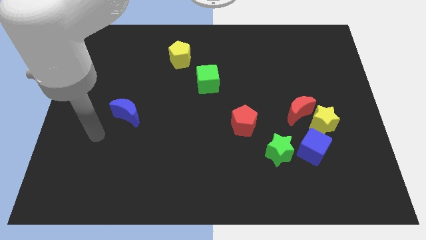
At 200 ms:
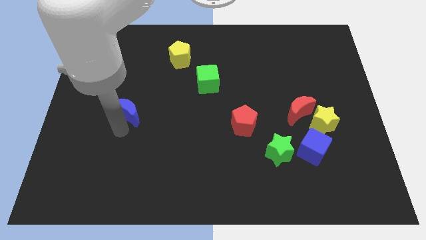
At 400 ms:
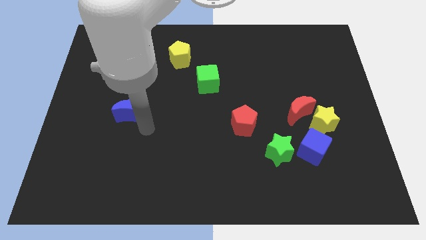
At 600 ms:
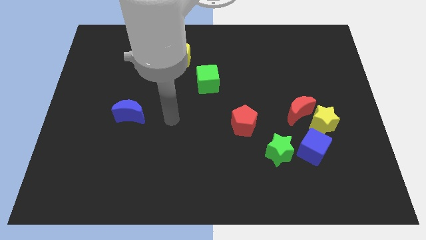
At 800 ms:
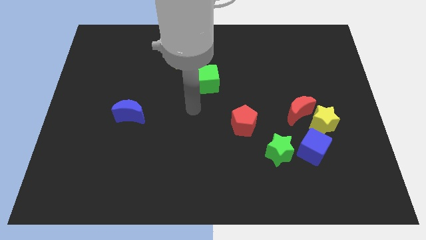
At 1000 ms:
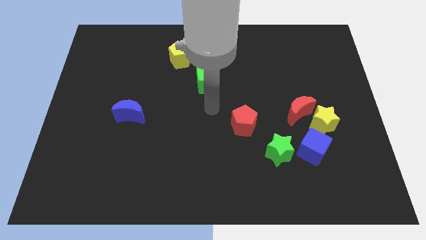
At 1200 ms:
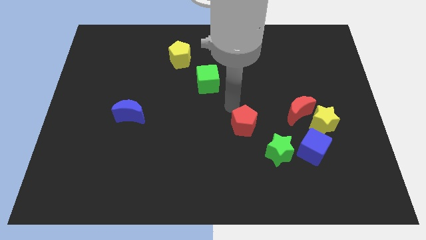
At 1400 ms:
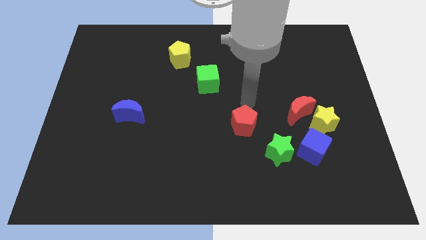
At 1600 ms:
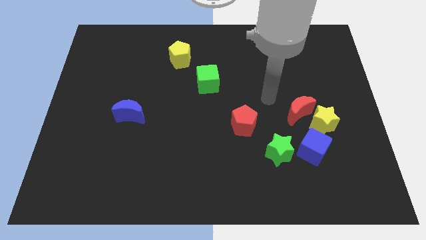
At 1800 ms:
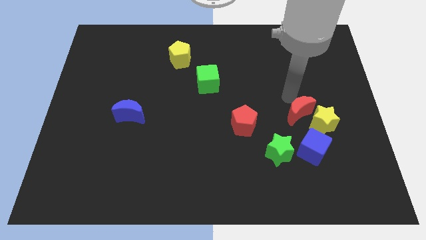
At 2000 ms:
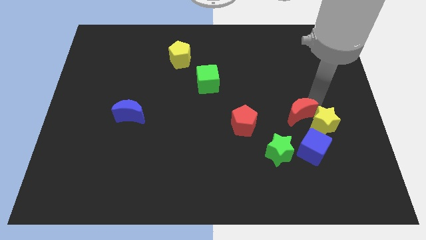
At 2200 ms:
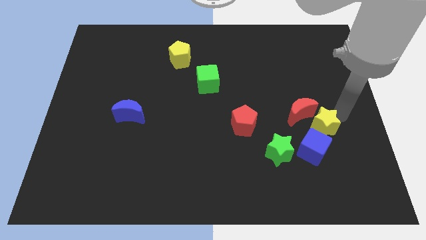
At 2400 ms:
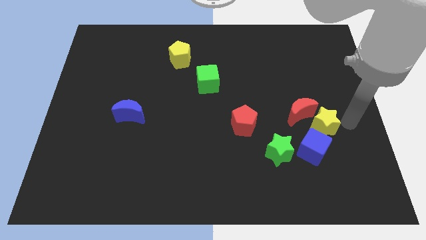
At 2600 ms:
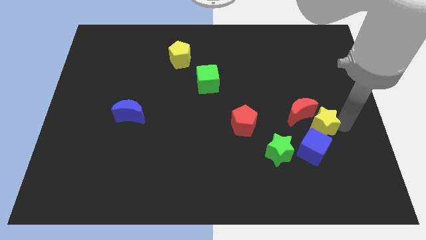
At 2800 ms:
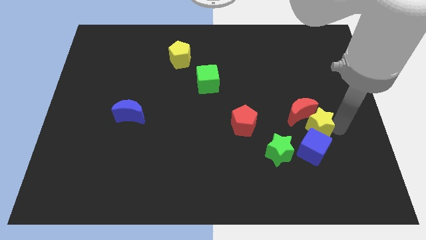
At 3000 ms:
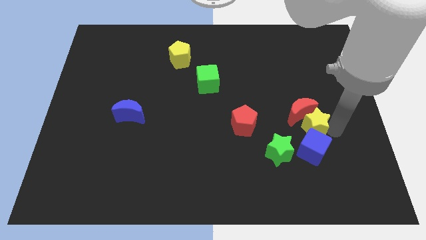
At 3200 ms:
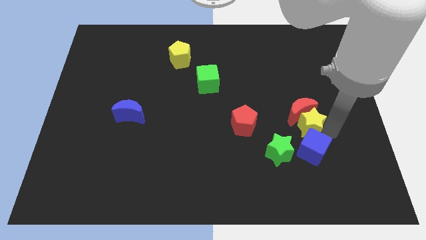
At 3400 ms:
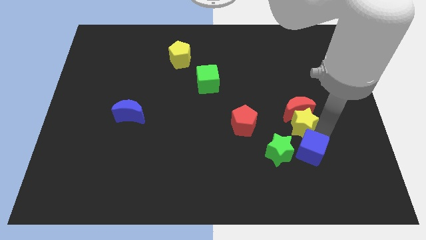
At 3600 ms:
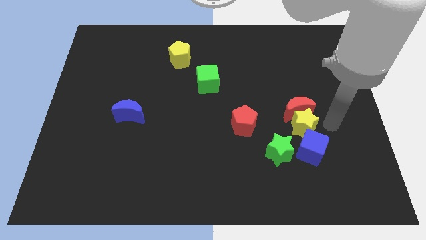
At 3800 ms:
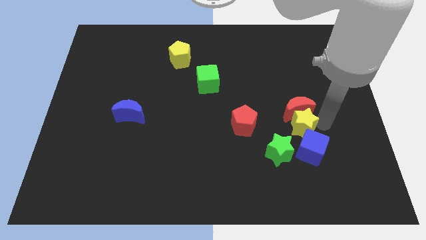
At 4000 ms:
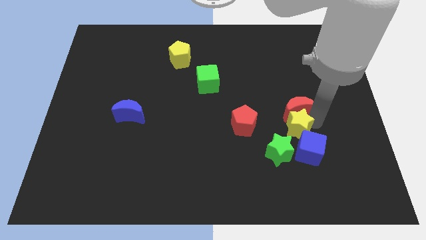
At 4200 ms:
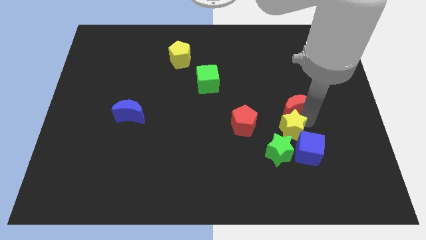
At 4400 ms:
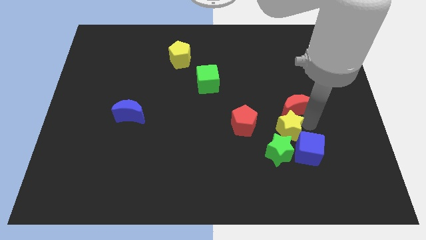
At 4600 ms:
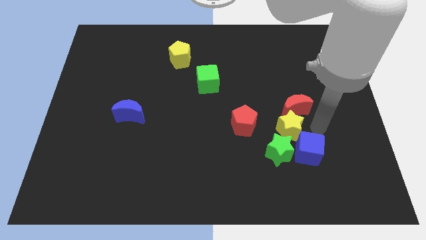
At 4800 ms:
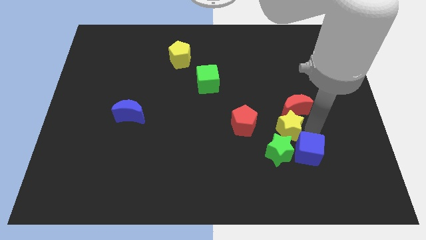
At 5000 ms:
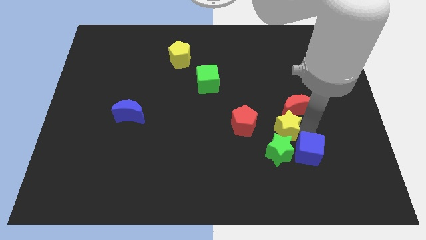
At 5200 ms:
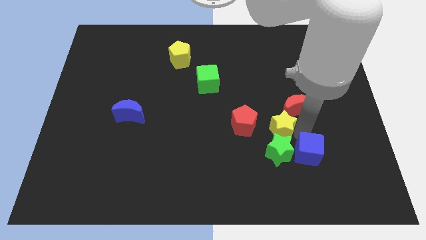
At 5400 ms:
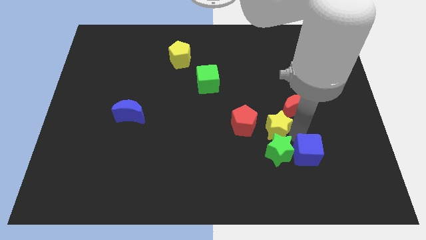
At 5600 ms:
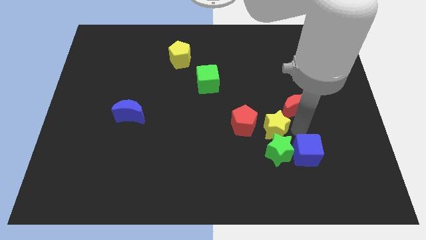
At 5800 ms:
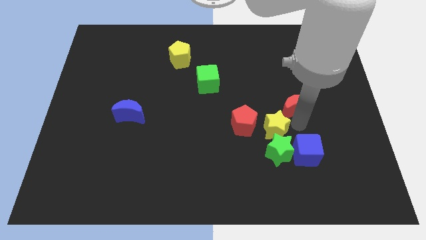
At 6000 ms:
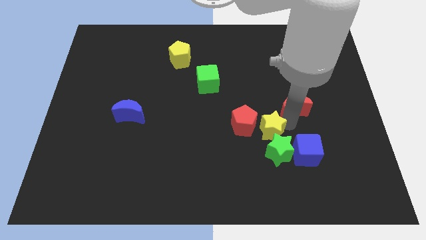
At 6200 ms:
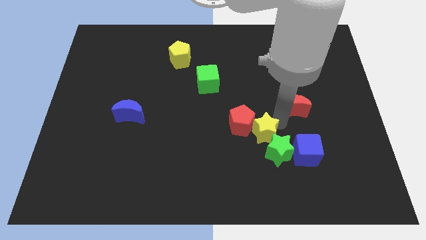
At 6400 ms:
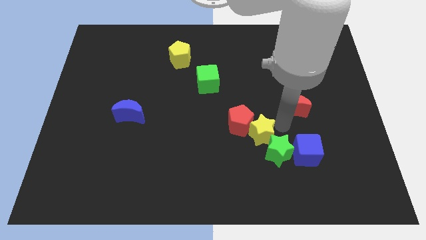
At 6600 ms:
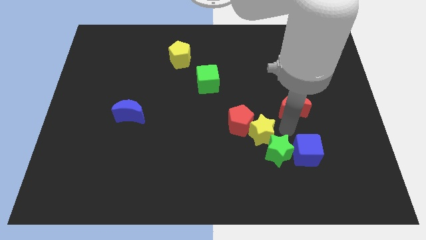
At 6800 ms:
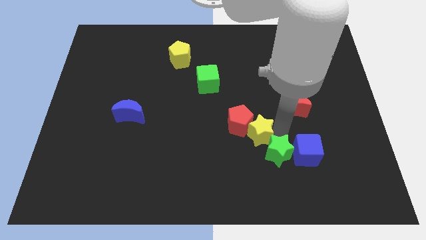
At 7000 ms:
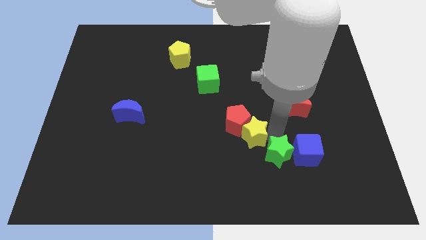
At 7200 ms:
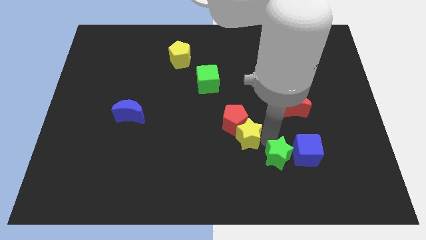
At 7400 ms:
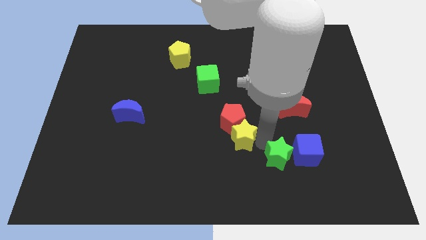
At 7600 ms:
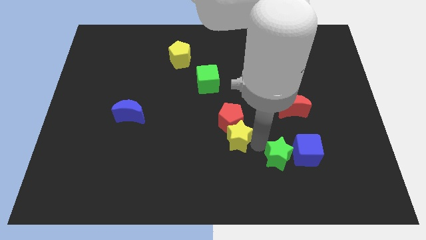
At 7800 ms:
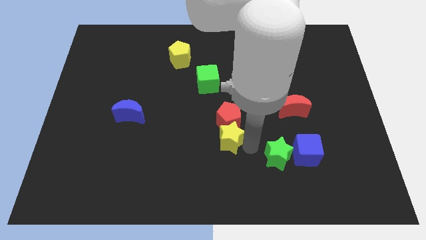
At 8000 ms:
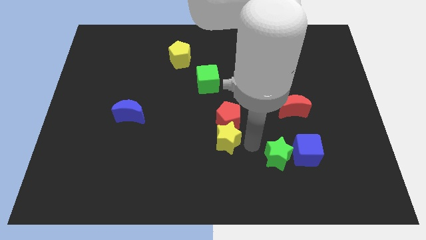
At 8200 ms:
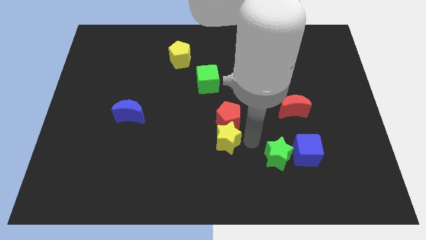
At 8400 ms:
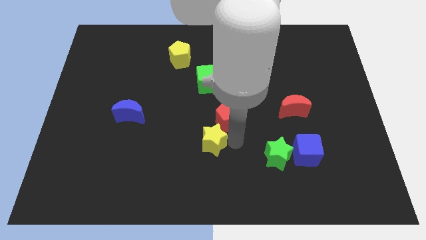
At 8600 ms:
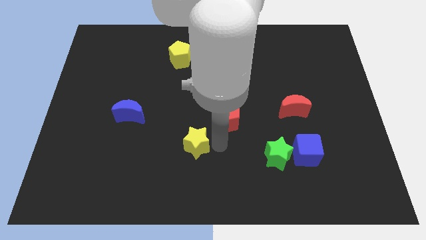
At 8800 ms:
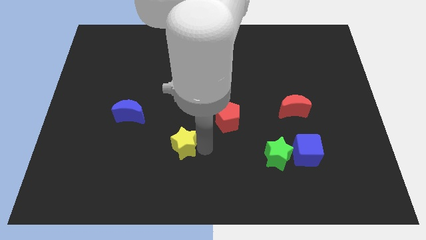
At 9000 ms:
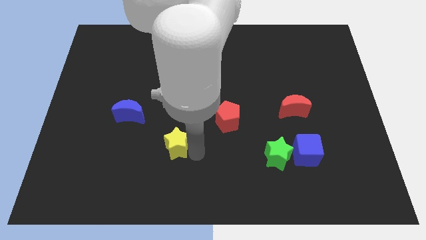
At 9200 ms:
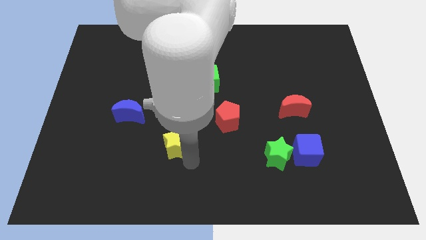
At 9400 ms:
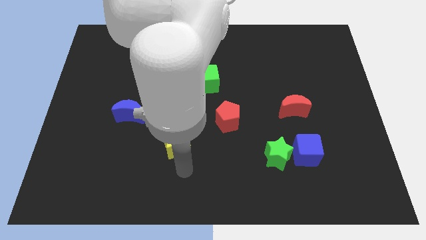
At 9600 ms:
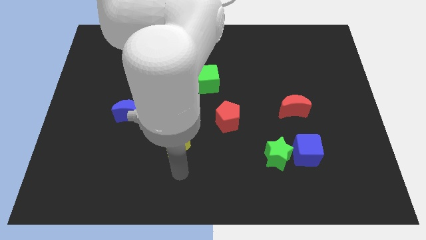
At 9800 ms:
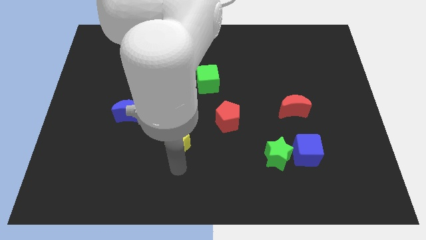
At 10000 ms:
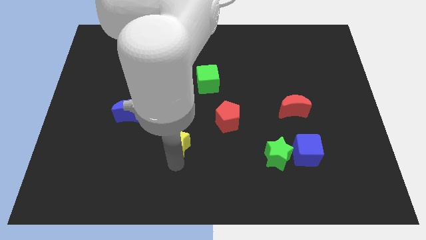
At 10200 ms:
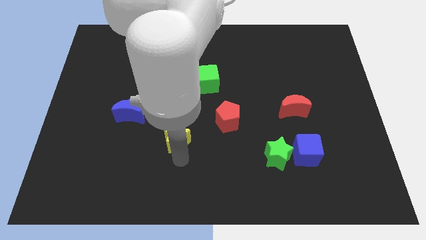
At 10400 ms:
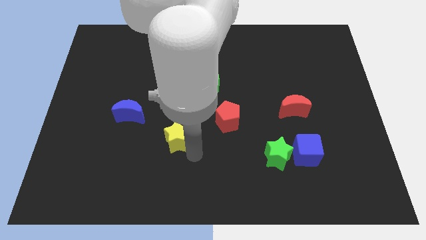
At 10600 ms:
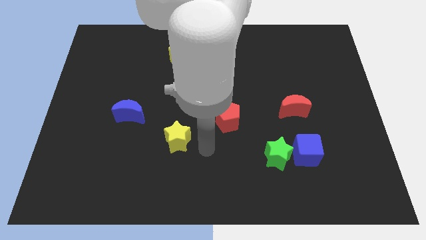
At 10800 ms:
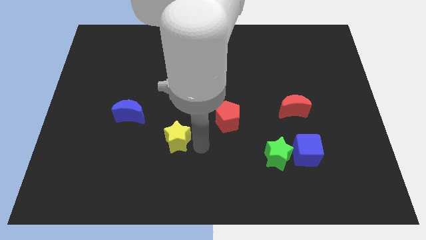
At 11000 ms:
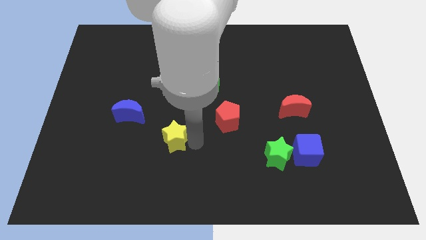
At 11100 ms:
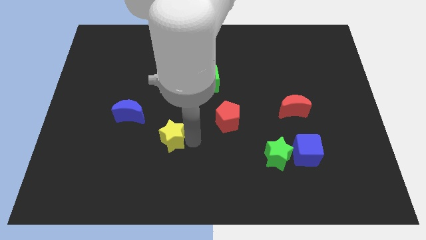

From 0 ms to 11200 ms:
put the yellow star to the bottom right of the blue moon

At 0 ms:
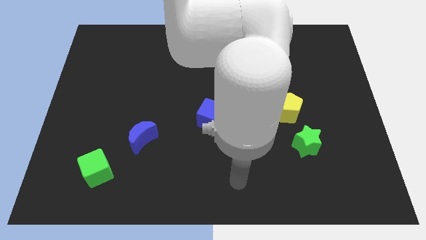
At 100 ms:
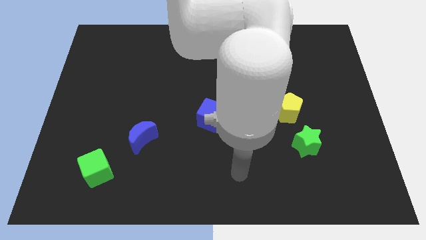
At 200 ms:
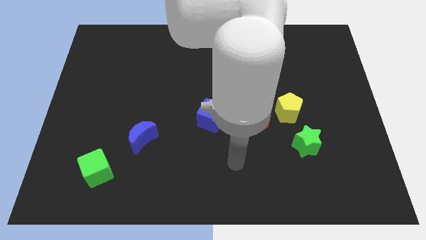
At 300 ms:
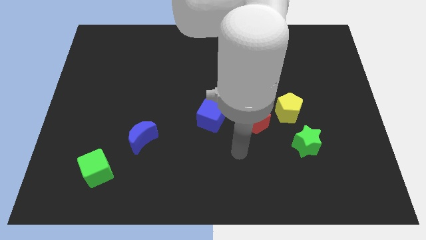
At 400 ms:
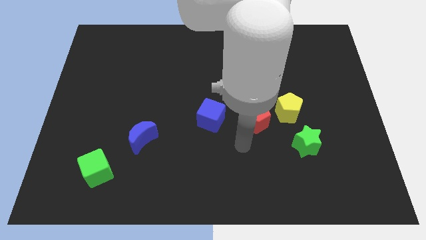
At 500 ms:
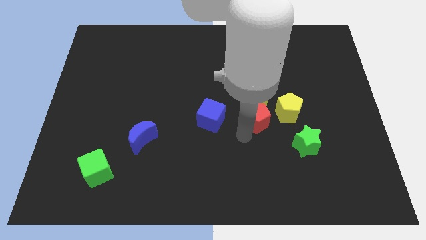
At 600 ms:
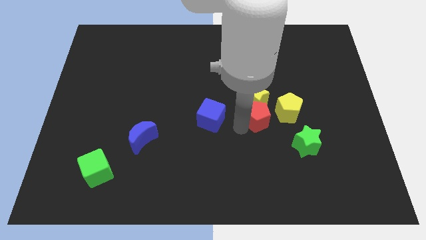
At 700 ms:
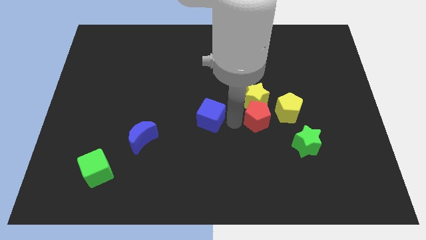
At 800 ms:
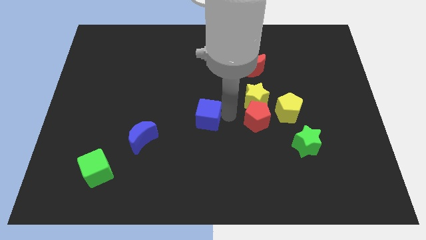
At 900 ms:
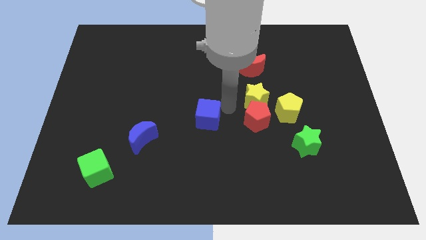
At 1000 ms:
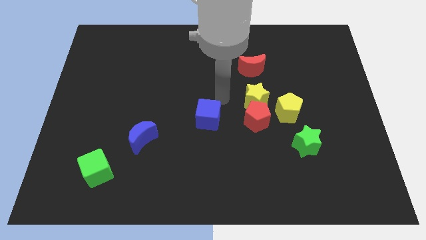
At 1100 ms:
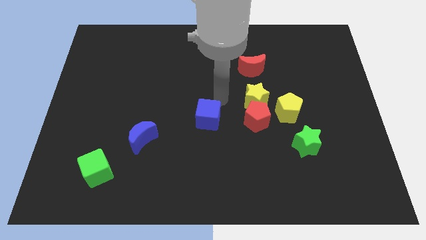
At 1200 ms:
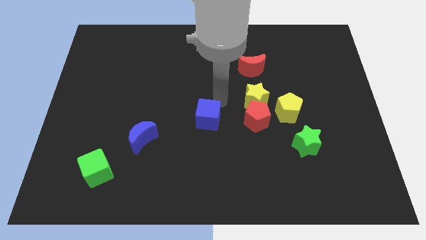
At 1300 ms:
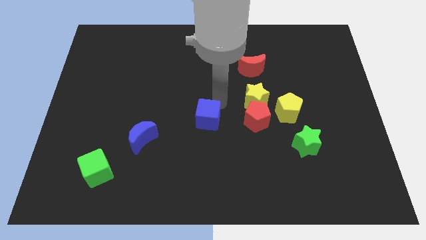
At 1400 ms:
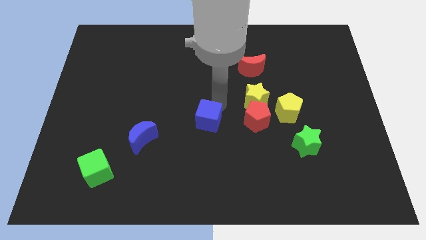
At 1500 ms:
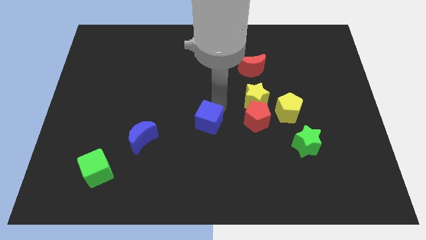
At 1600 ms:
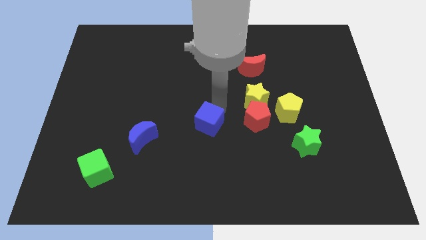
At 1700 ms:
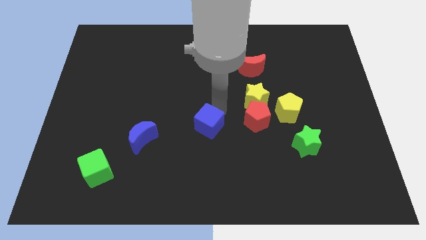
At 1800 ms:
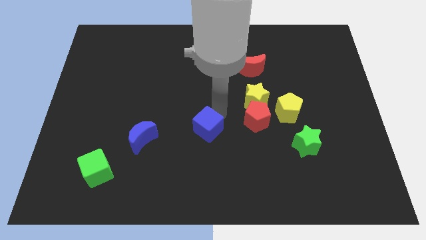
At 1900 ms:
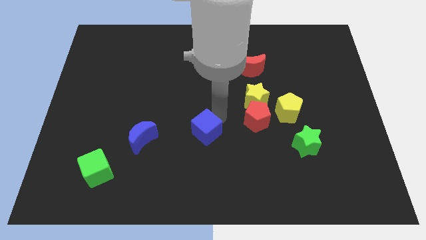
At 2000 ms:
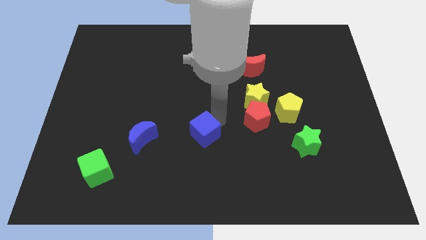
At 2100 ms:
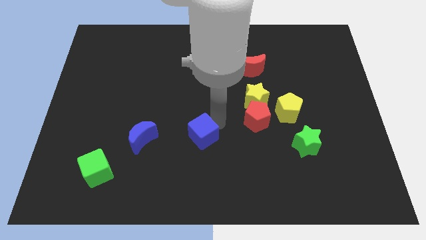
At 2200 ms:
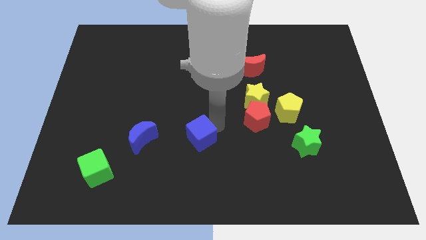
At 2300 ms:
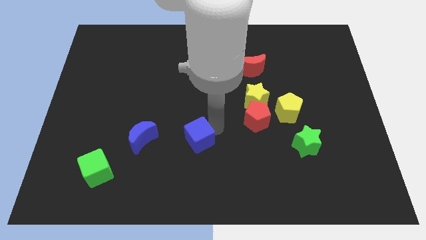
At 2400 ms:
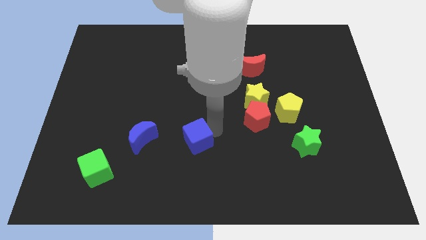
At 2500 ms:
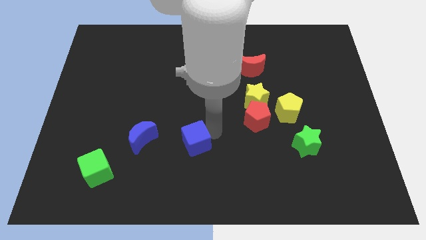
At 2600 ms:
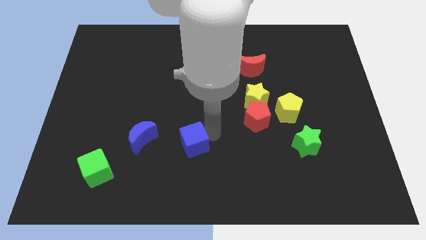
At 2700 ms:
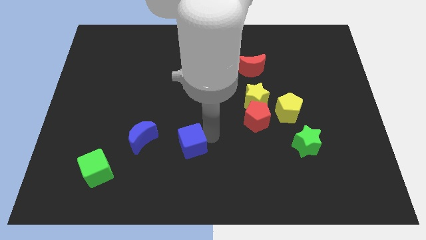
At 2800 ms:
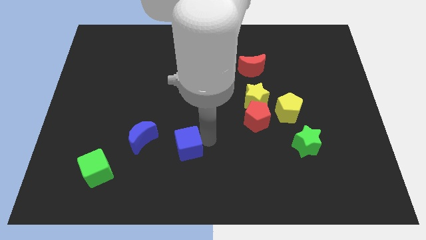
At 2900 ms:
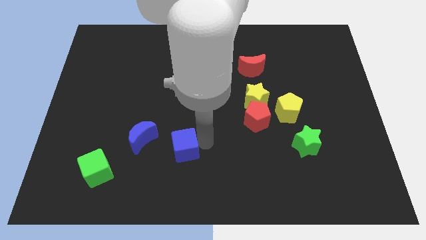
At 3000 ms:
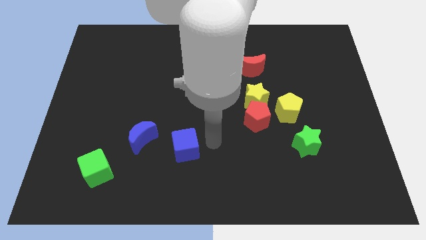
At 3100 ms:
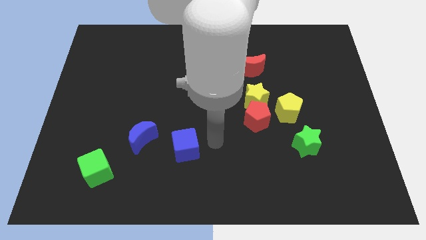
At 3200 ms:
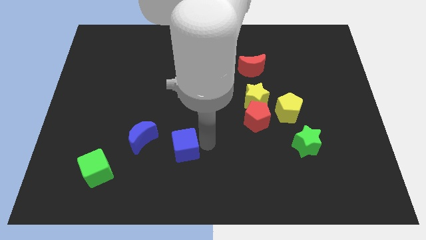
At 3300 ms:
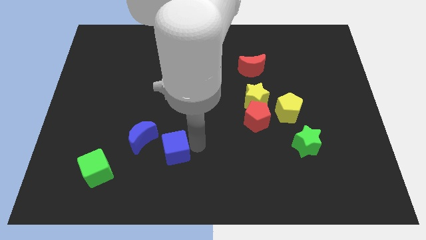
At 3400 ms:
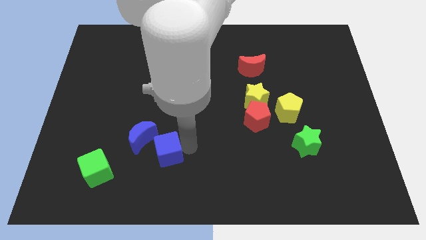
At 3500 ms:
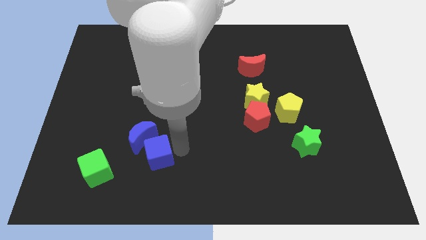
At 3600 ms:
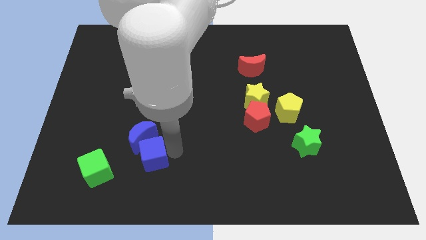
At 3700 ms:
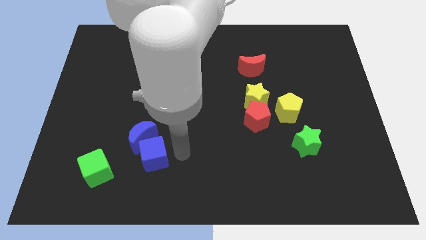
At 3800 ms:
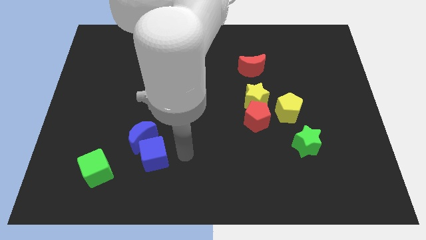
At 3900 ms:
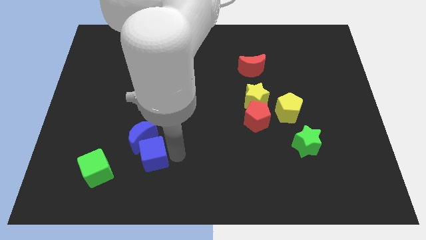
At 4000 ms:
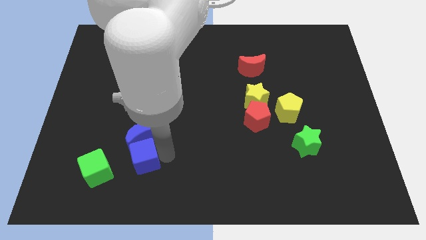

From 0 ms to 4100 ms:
slide the blue cube to the bottom left side of the blue moon
